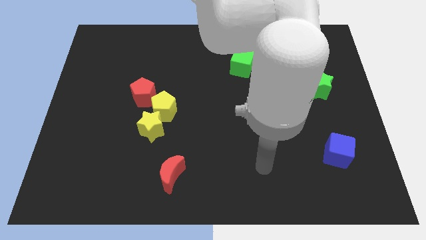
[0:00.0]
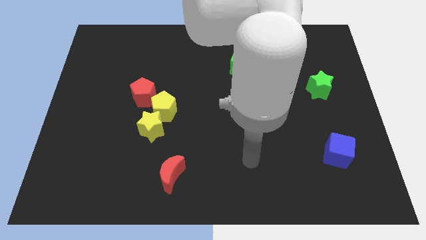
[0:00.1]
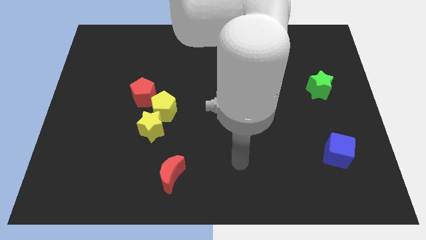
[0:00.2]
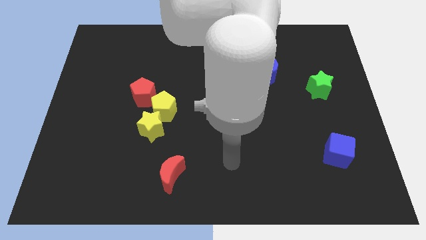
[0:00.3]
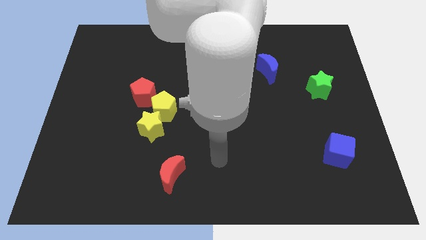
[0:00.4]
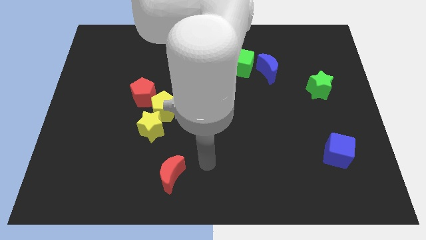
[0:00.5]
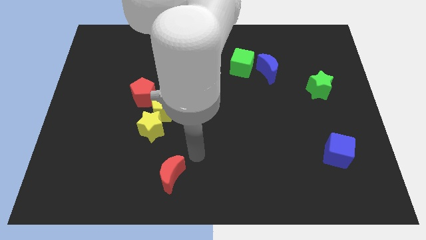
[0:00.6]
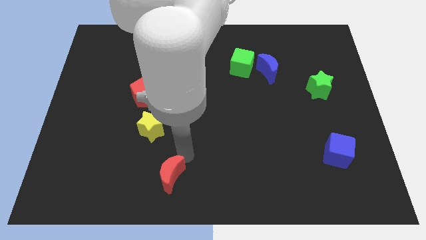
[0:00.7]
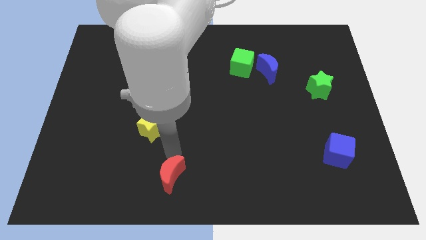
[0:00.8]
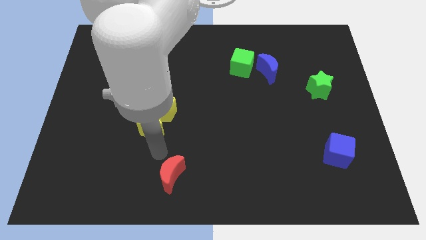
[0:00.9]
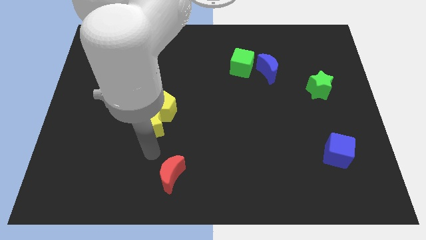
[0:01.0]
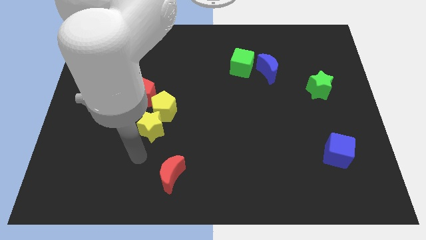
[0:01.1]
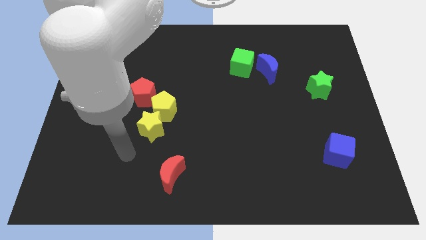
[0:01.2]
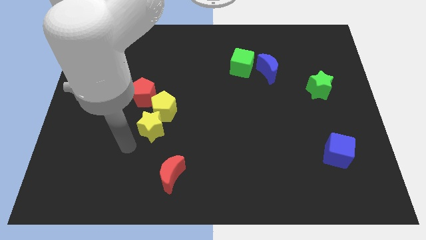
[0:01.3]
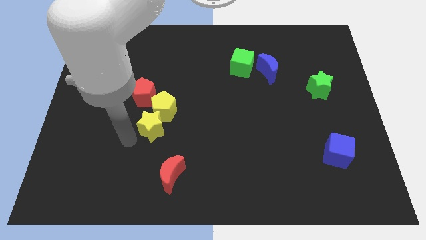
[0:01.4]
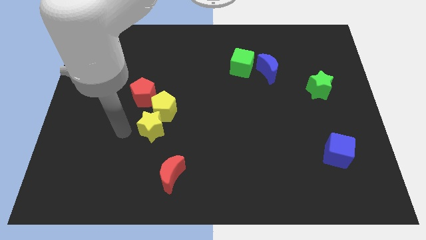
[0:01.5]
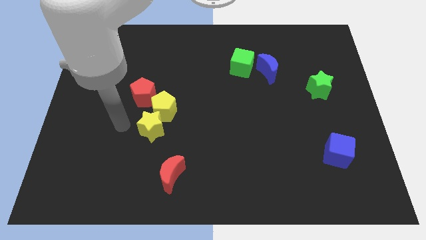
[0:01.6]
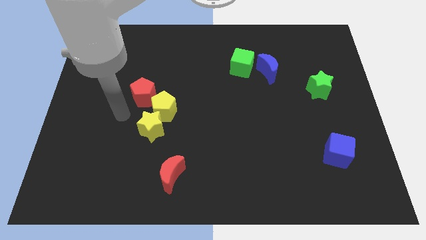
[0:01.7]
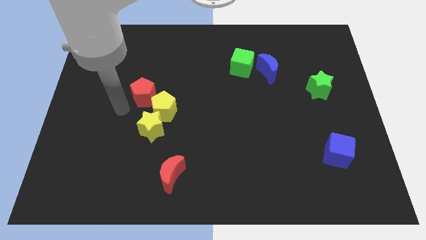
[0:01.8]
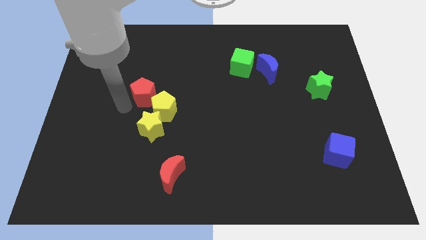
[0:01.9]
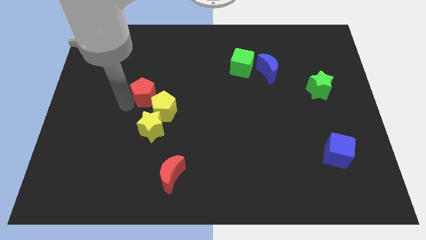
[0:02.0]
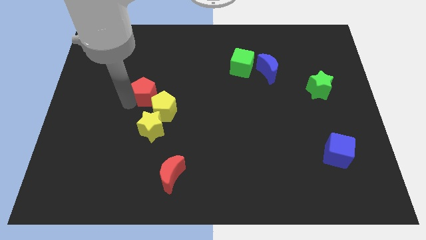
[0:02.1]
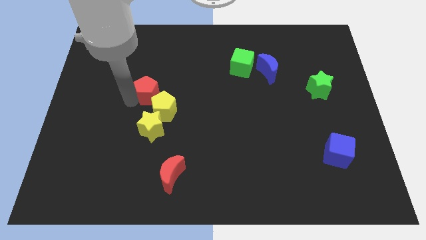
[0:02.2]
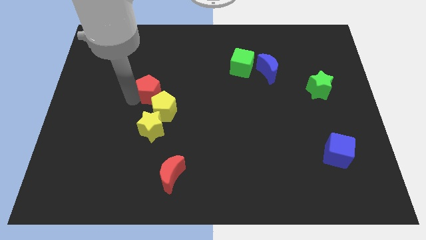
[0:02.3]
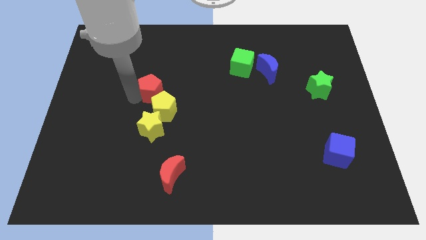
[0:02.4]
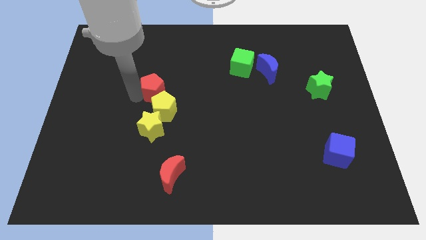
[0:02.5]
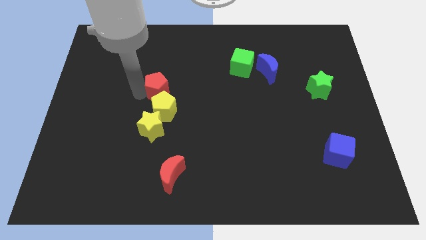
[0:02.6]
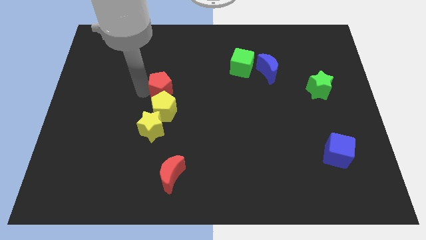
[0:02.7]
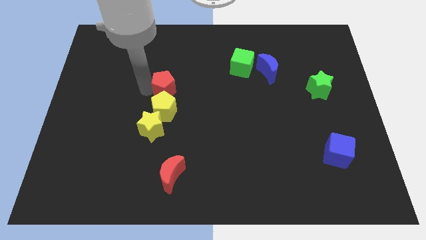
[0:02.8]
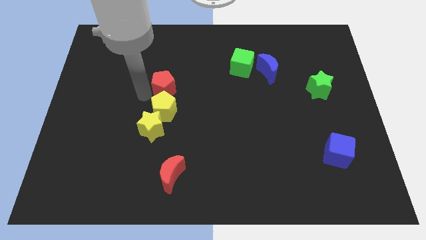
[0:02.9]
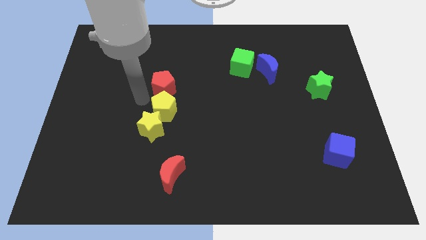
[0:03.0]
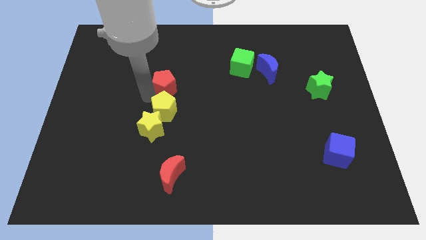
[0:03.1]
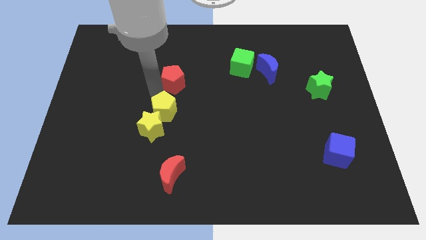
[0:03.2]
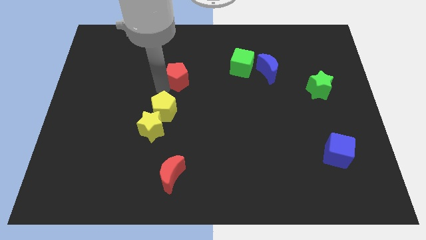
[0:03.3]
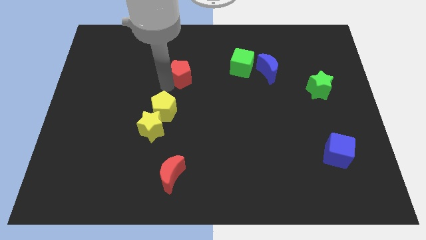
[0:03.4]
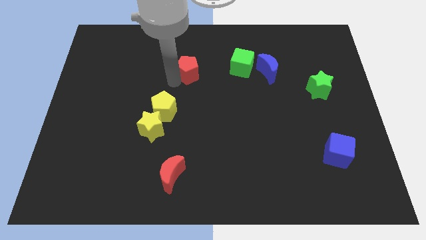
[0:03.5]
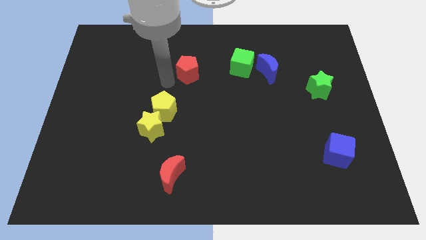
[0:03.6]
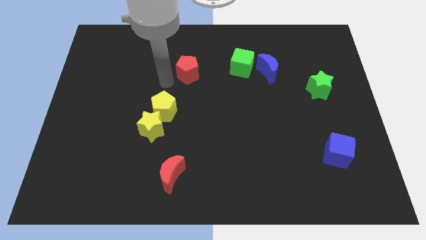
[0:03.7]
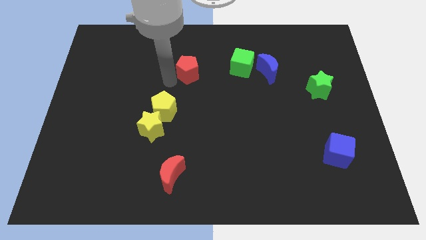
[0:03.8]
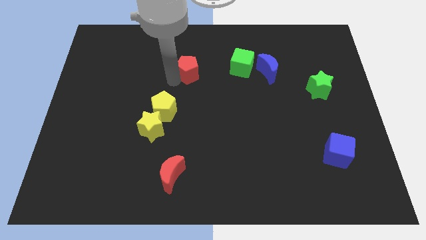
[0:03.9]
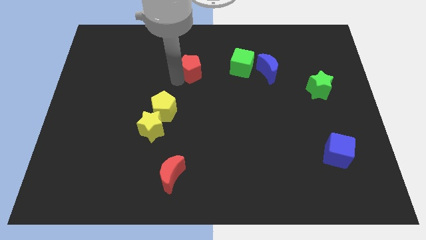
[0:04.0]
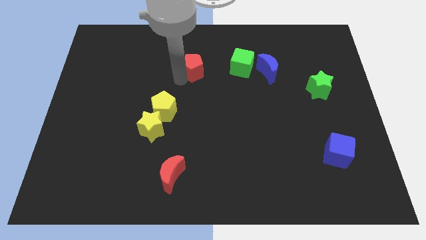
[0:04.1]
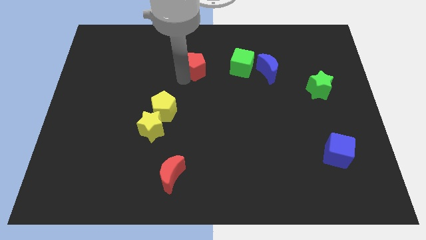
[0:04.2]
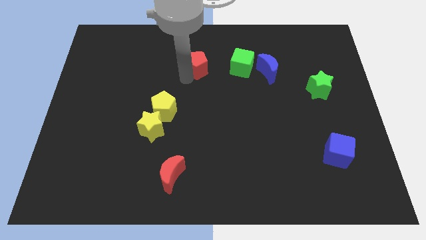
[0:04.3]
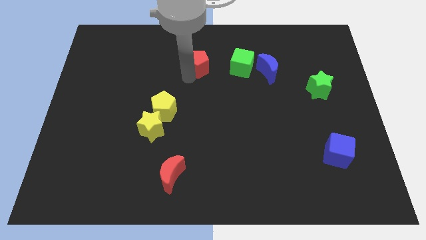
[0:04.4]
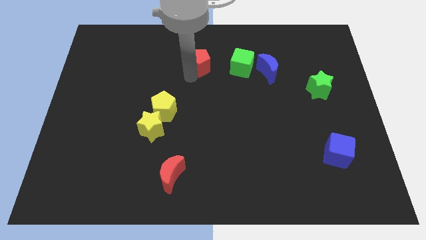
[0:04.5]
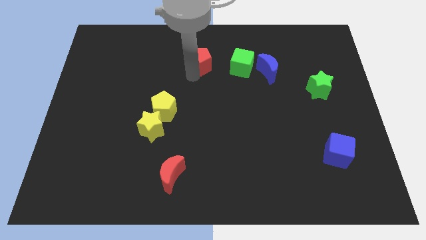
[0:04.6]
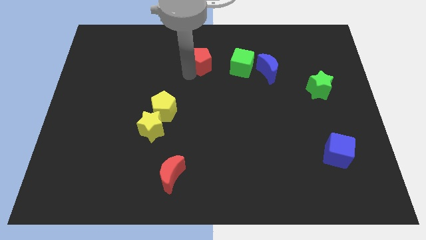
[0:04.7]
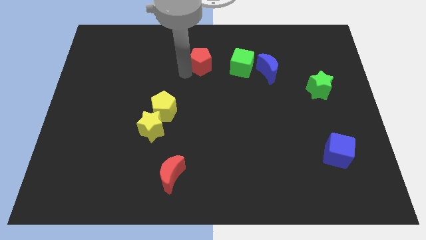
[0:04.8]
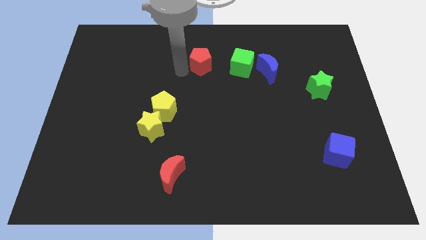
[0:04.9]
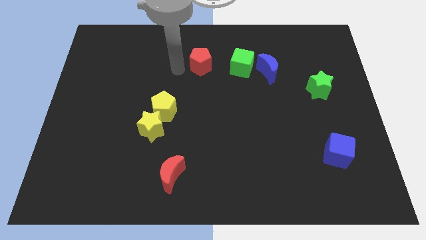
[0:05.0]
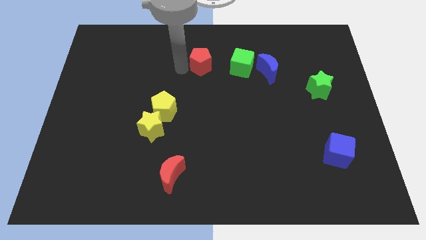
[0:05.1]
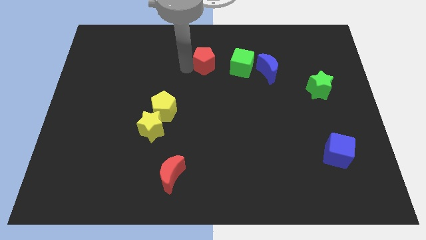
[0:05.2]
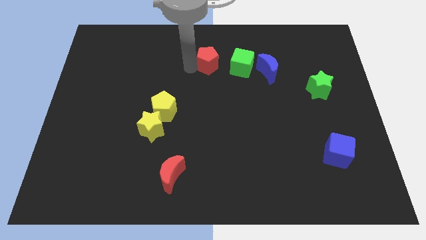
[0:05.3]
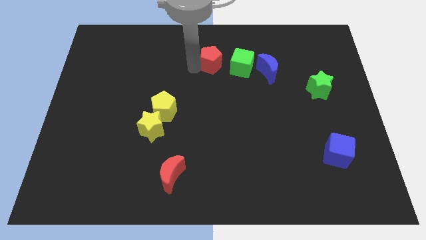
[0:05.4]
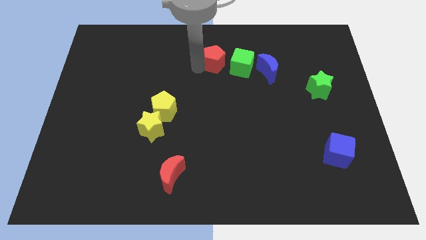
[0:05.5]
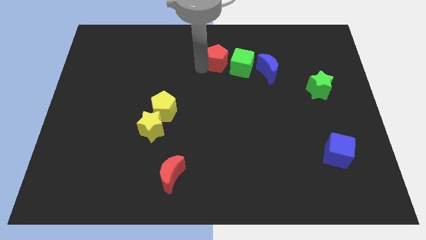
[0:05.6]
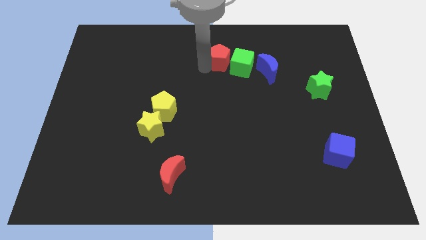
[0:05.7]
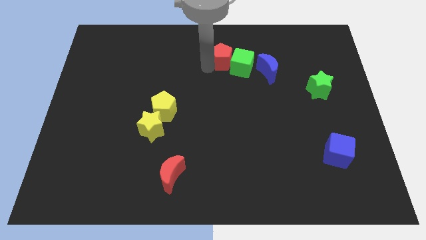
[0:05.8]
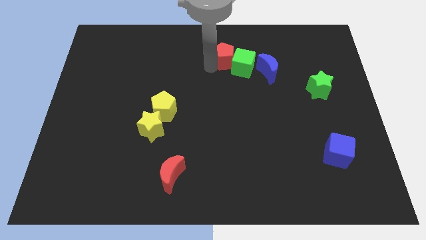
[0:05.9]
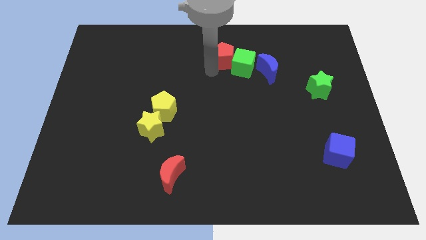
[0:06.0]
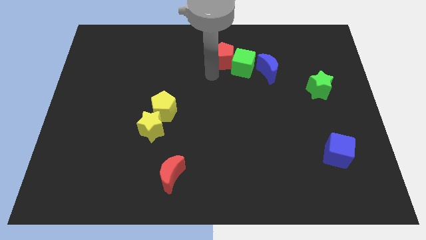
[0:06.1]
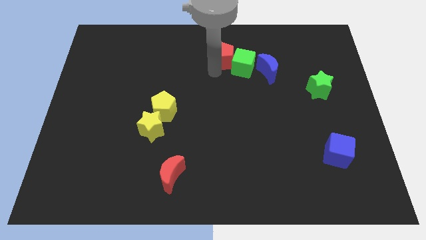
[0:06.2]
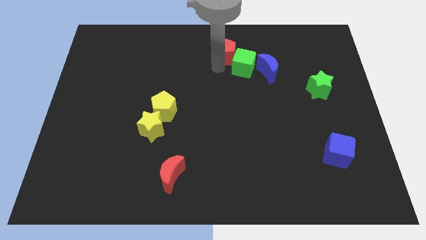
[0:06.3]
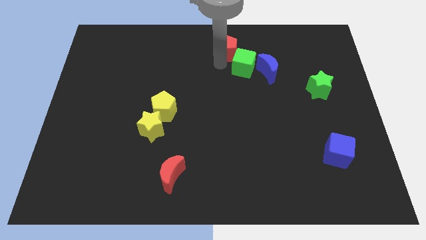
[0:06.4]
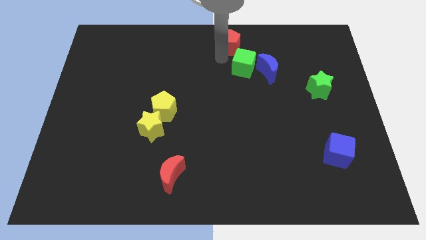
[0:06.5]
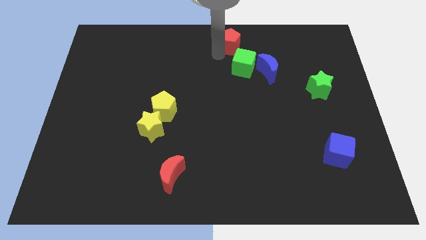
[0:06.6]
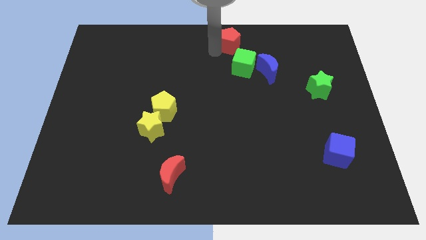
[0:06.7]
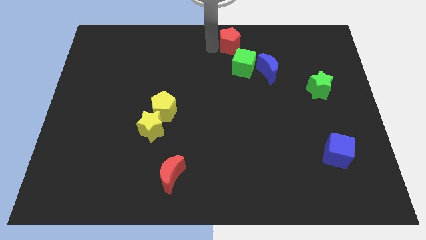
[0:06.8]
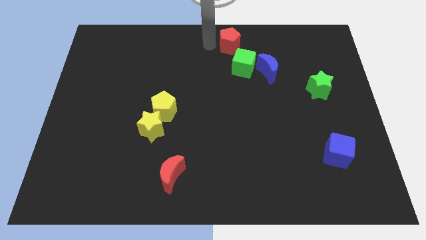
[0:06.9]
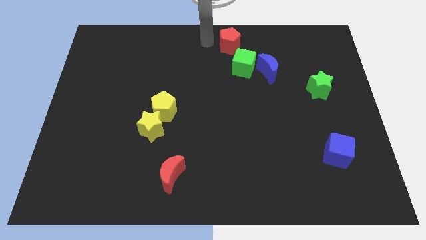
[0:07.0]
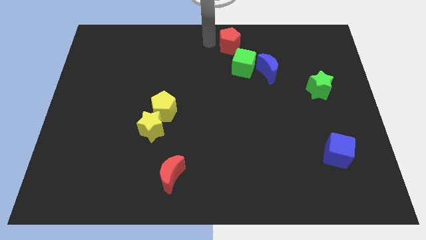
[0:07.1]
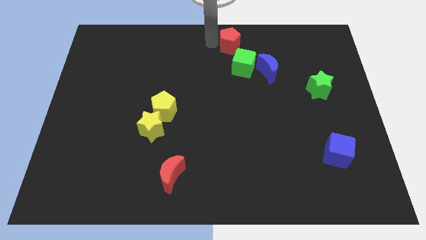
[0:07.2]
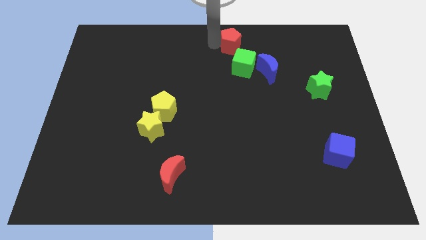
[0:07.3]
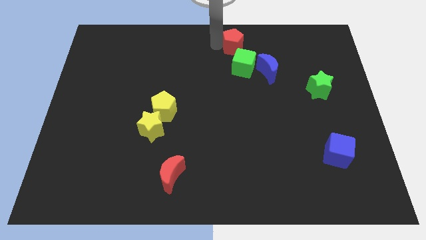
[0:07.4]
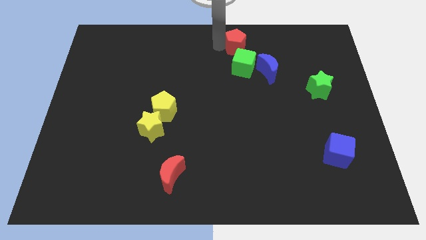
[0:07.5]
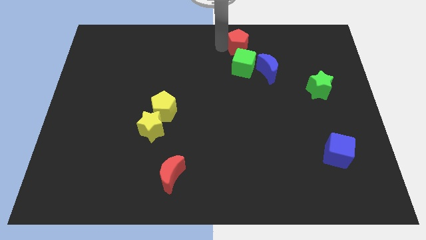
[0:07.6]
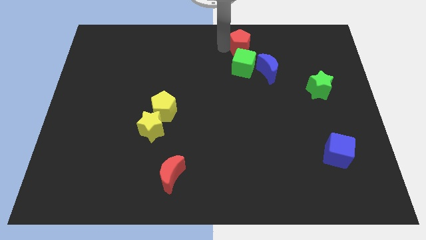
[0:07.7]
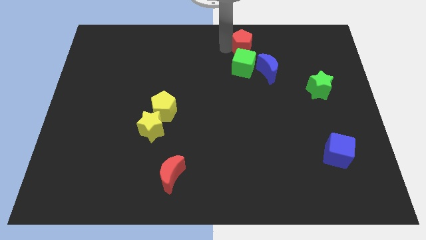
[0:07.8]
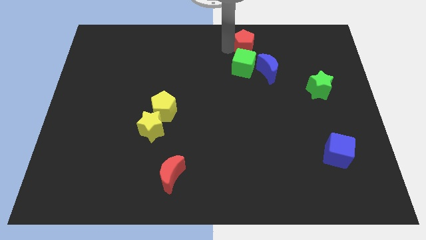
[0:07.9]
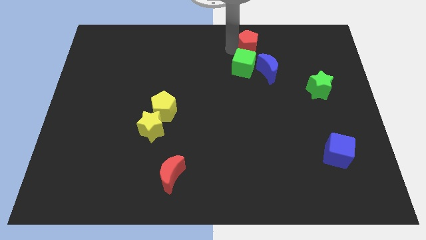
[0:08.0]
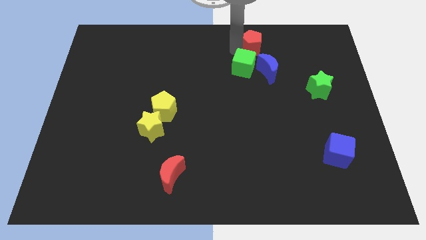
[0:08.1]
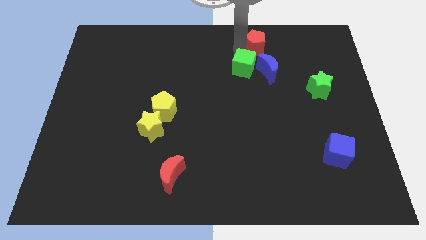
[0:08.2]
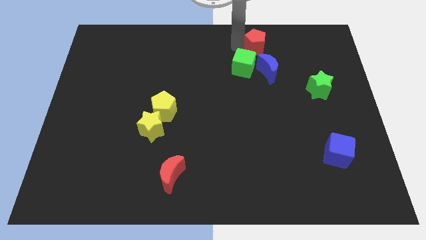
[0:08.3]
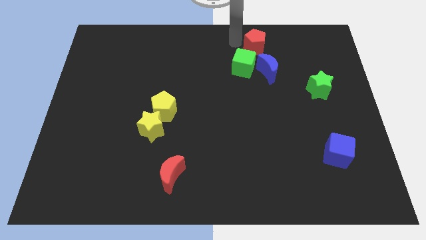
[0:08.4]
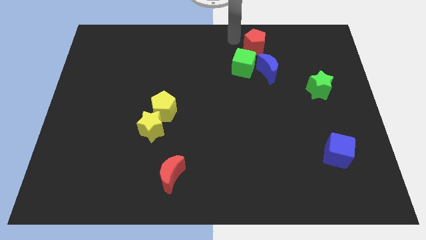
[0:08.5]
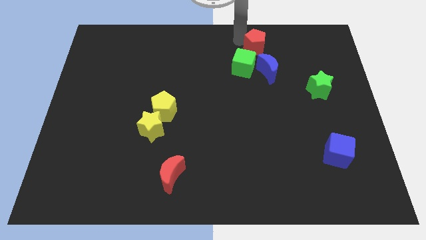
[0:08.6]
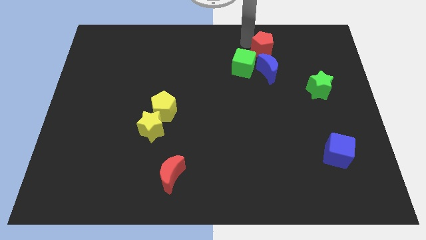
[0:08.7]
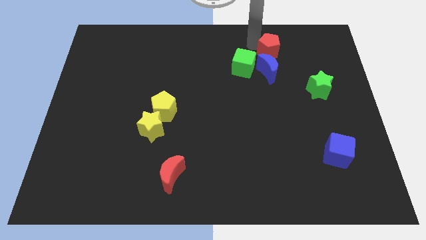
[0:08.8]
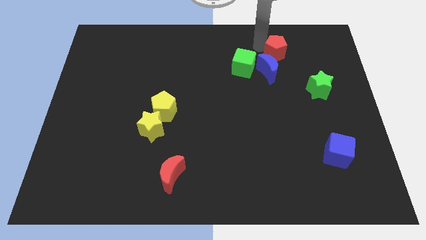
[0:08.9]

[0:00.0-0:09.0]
push the red pentagon diagonally up and to the right of the blue moon
